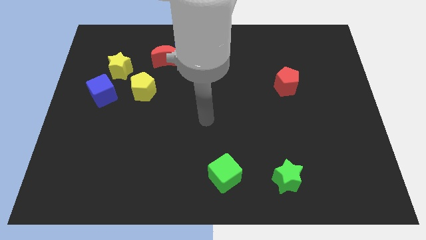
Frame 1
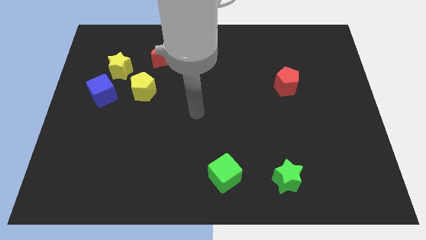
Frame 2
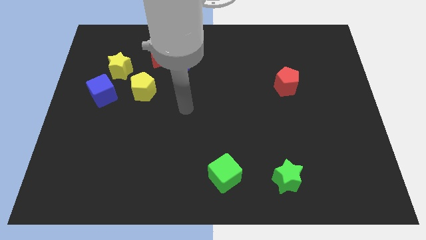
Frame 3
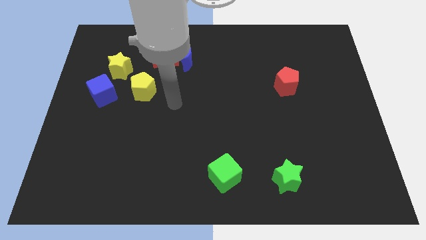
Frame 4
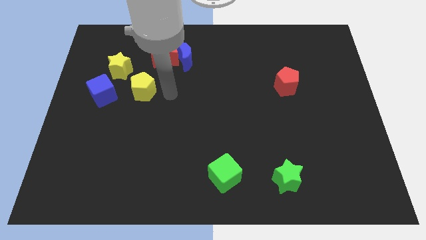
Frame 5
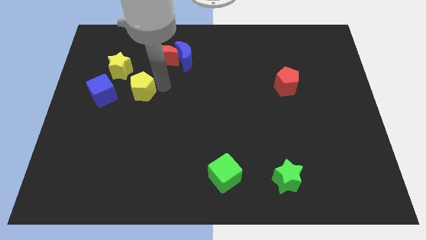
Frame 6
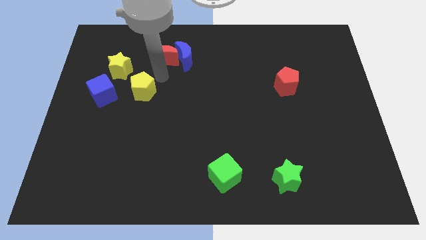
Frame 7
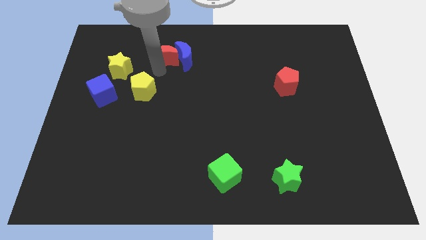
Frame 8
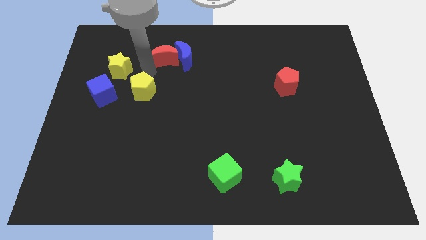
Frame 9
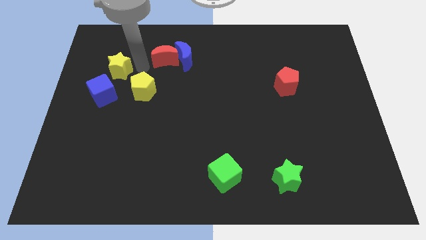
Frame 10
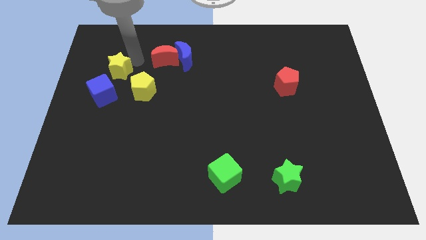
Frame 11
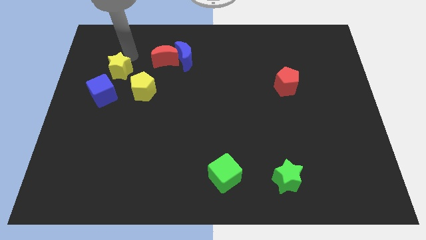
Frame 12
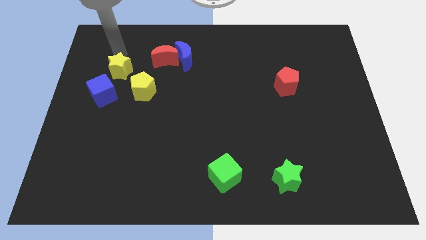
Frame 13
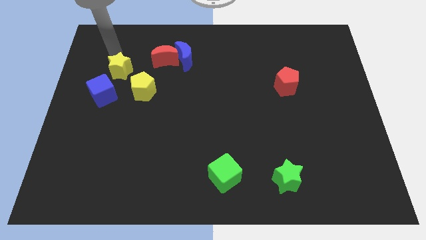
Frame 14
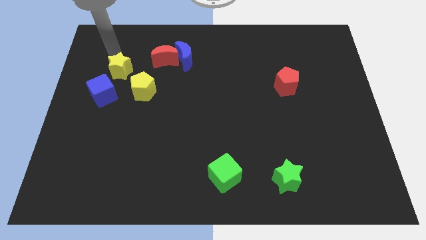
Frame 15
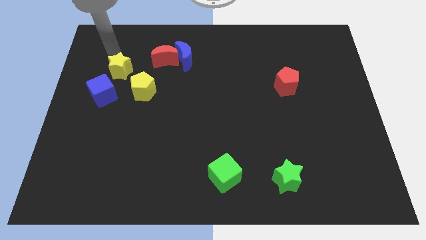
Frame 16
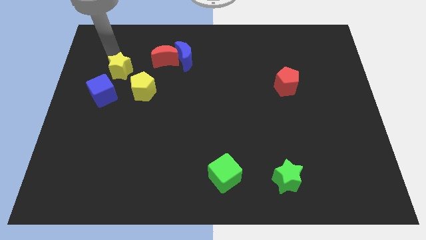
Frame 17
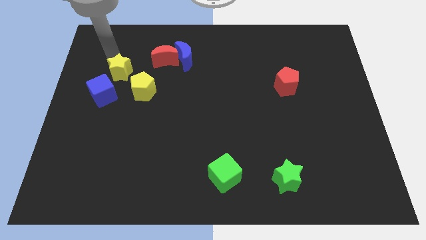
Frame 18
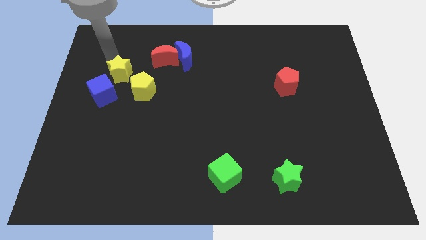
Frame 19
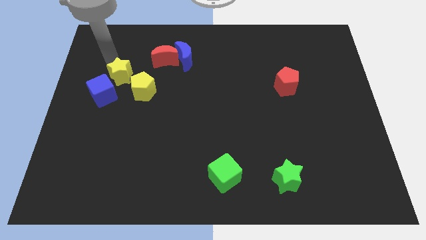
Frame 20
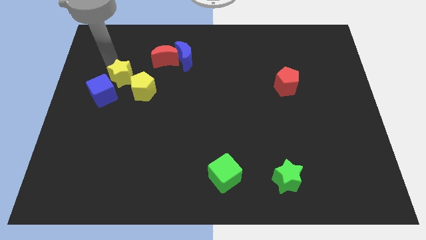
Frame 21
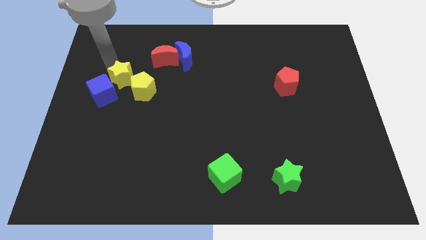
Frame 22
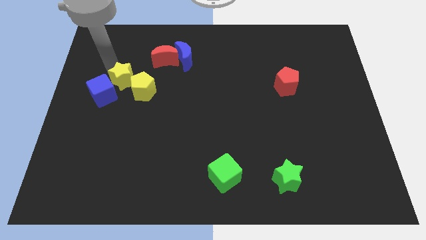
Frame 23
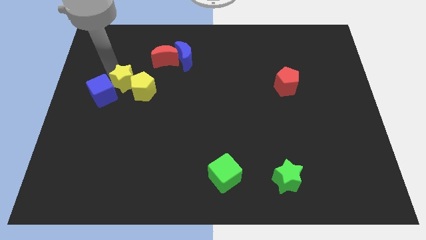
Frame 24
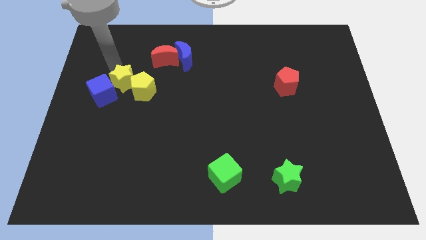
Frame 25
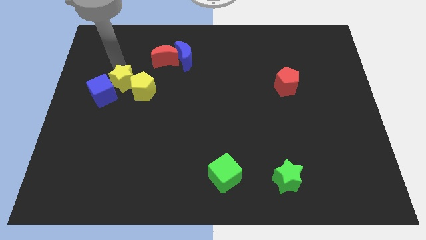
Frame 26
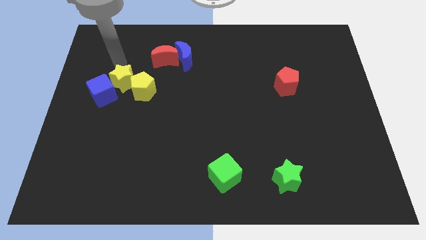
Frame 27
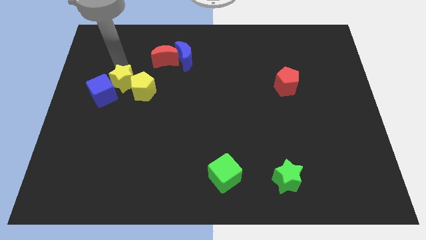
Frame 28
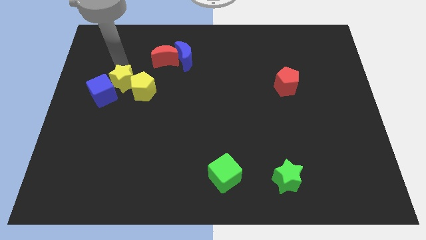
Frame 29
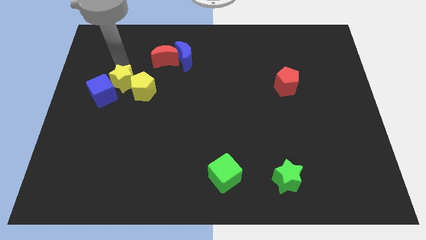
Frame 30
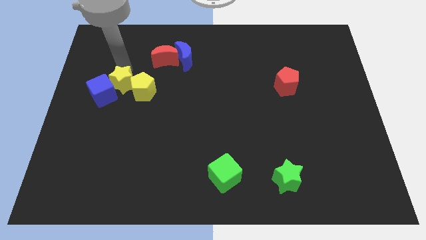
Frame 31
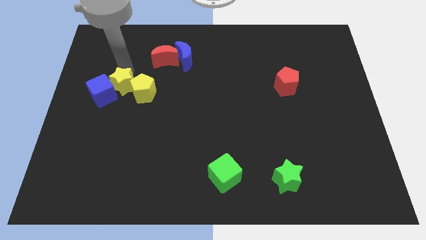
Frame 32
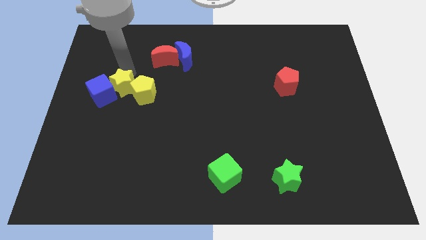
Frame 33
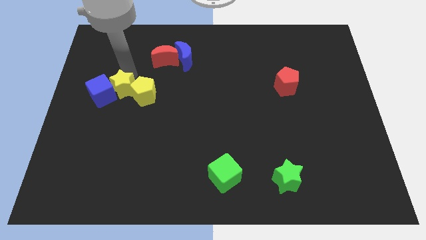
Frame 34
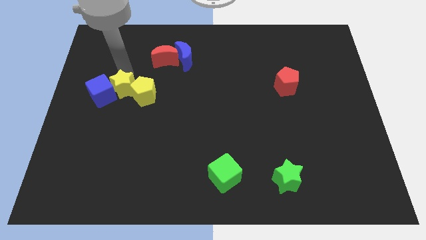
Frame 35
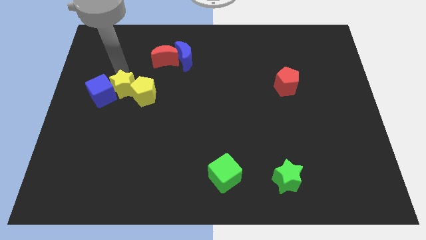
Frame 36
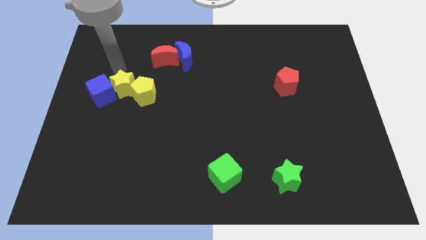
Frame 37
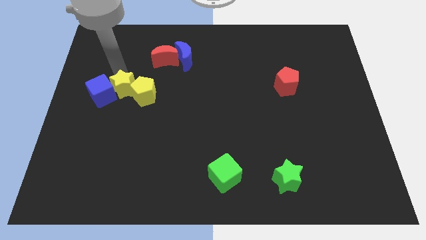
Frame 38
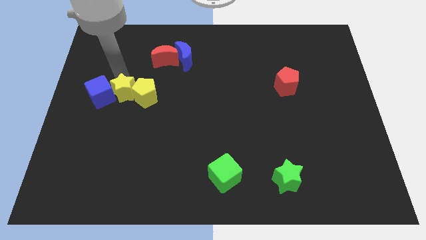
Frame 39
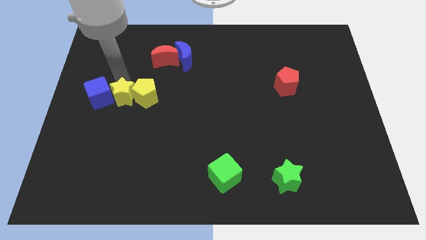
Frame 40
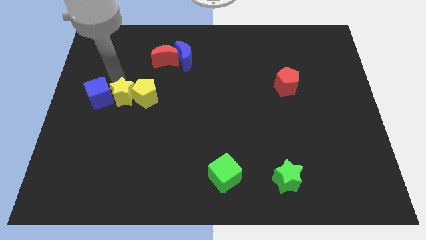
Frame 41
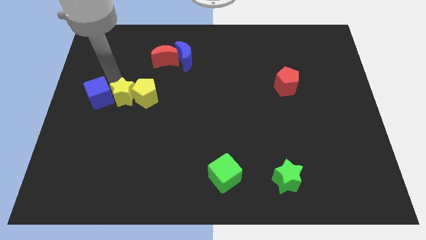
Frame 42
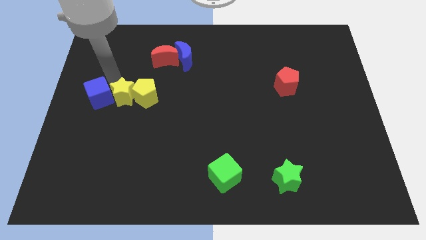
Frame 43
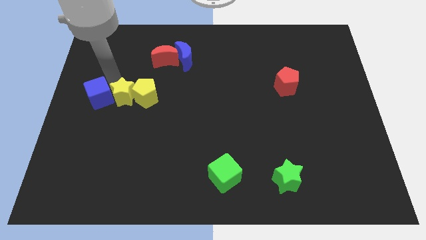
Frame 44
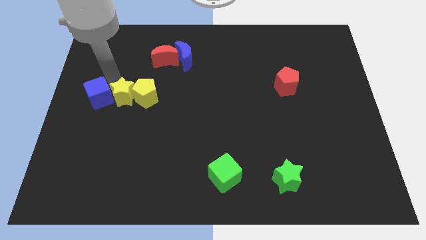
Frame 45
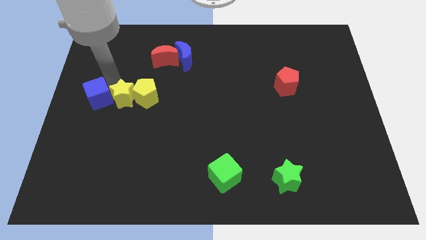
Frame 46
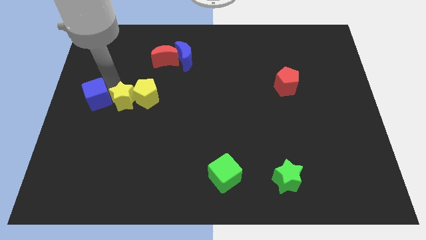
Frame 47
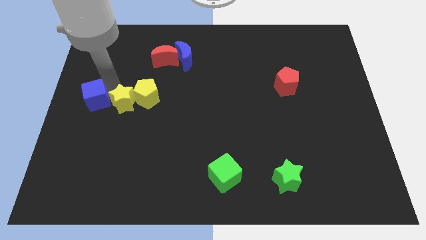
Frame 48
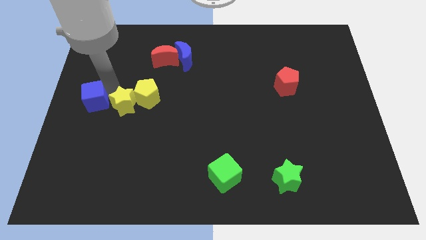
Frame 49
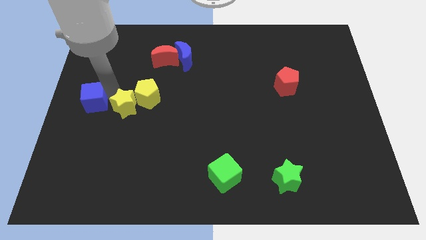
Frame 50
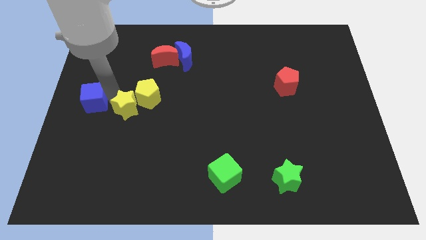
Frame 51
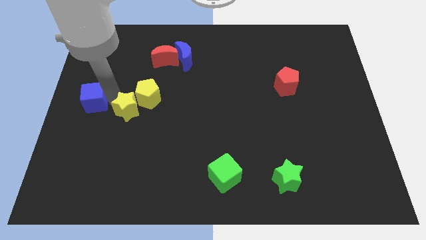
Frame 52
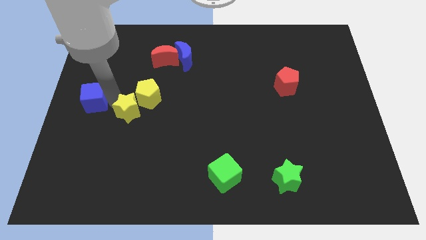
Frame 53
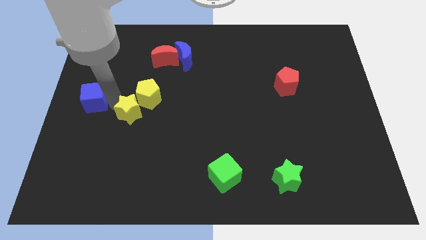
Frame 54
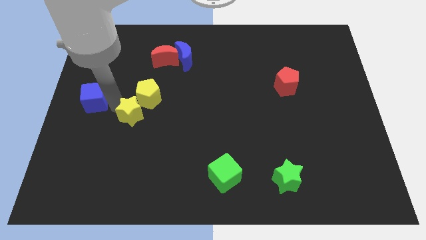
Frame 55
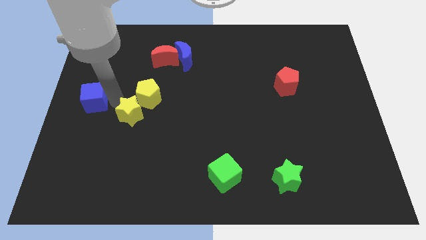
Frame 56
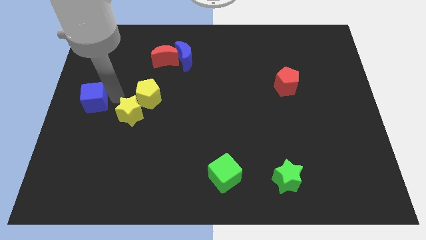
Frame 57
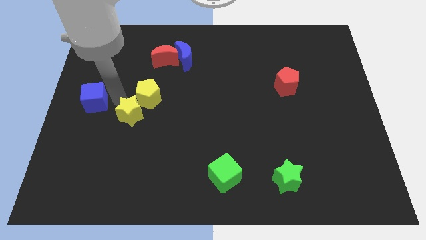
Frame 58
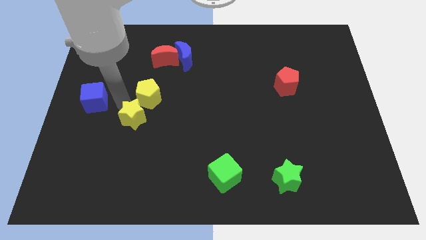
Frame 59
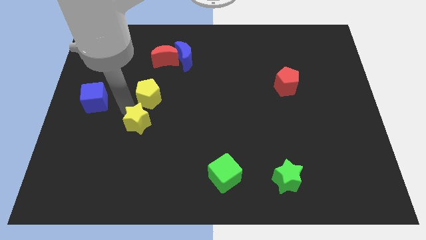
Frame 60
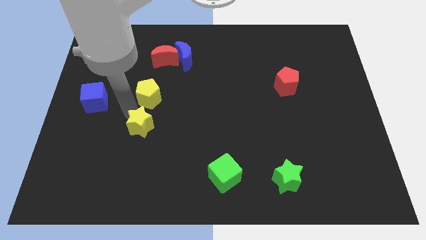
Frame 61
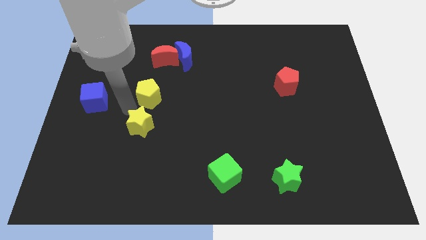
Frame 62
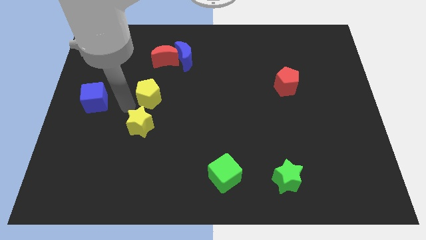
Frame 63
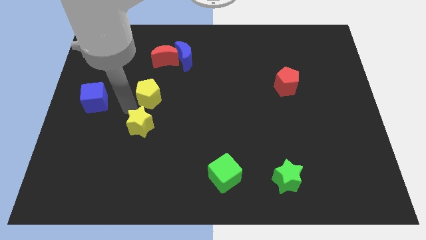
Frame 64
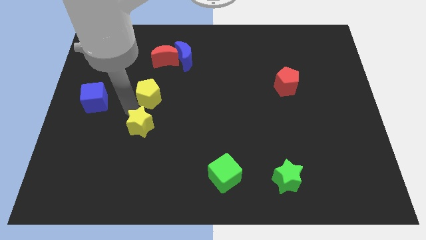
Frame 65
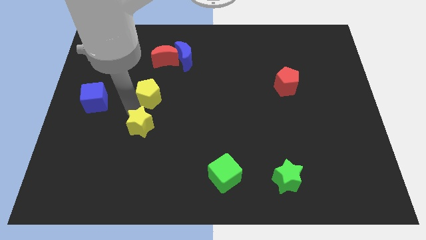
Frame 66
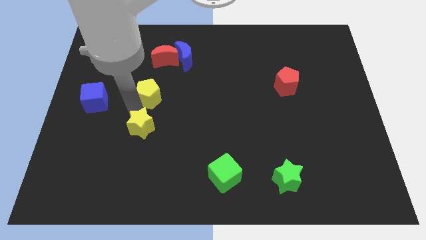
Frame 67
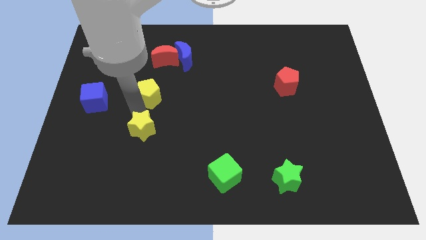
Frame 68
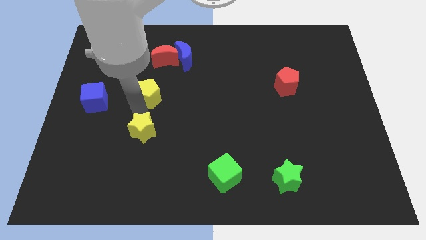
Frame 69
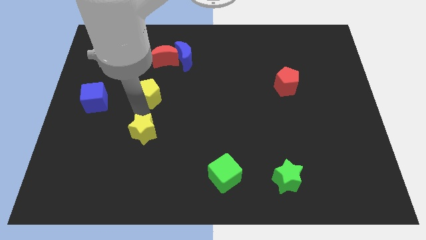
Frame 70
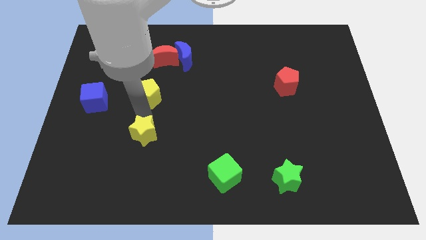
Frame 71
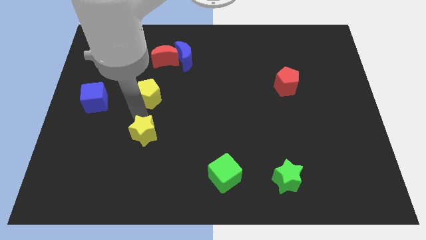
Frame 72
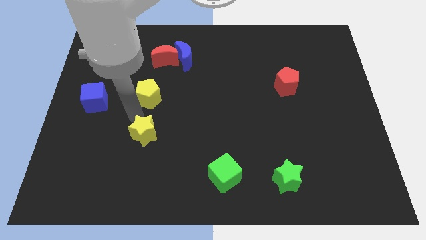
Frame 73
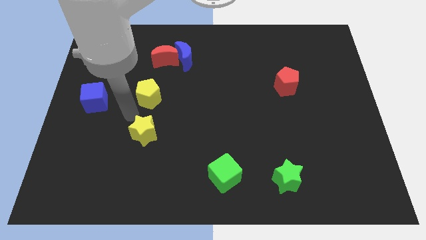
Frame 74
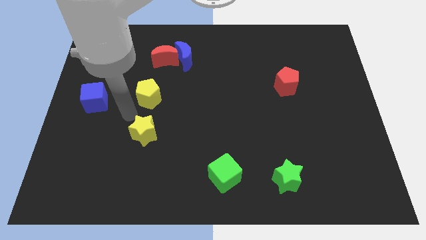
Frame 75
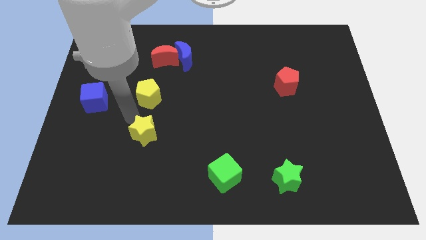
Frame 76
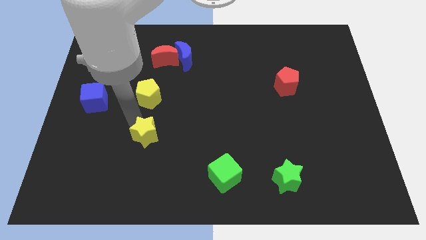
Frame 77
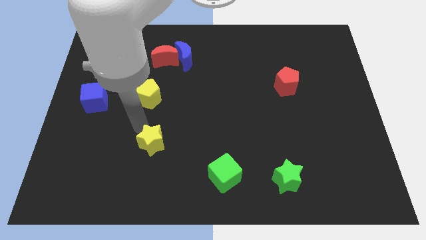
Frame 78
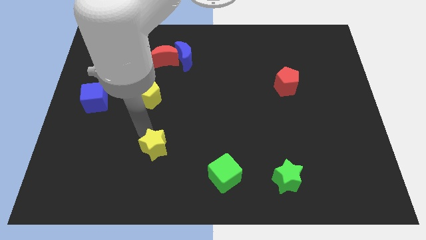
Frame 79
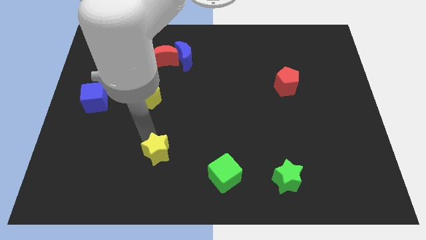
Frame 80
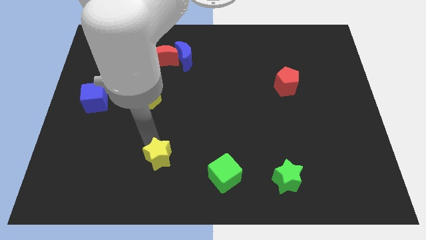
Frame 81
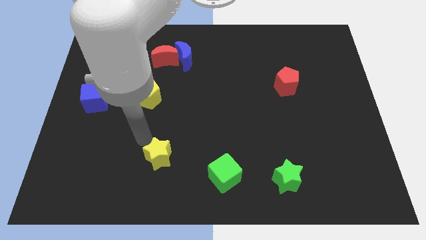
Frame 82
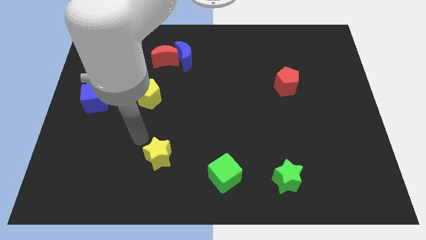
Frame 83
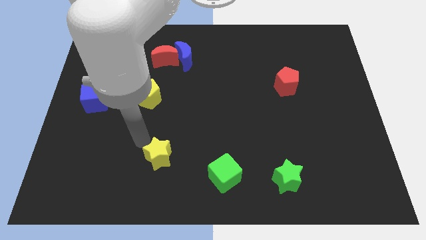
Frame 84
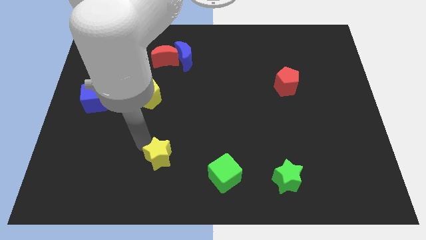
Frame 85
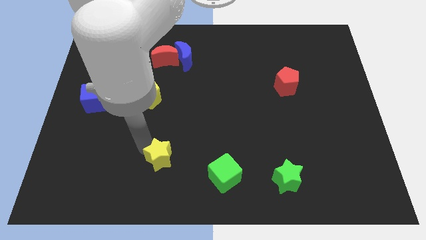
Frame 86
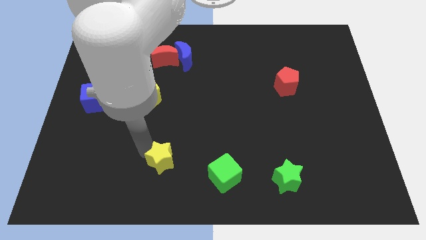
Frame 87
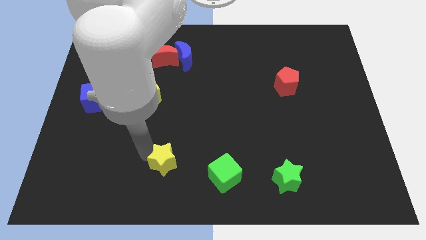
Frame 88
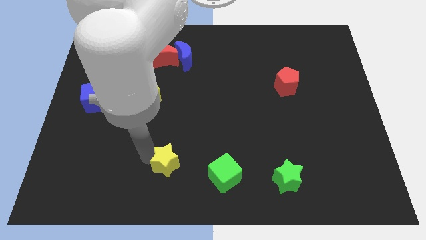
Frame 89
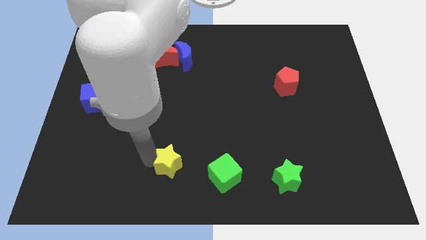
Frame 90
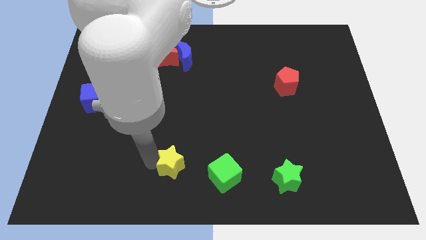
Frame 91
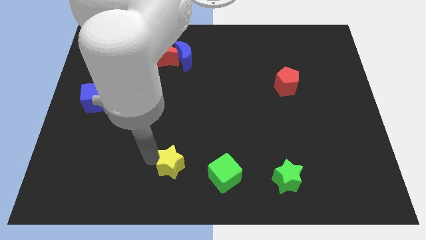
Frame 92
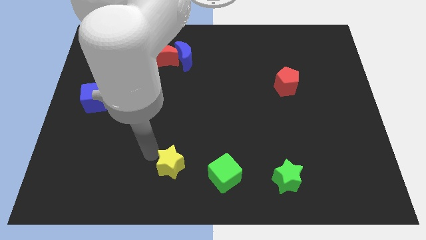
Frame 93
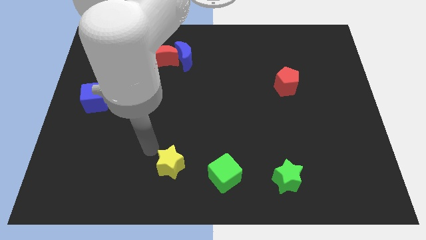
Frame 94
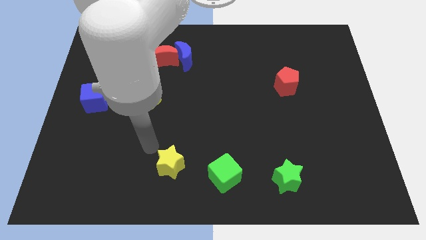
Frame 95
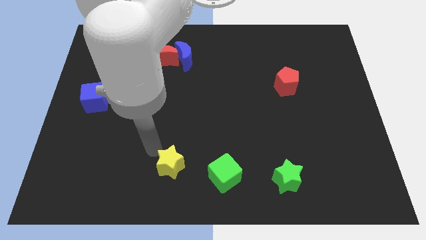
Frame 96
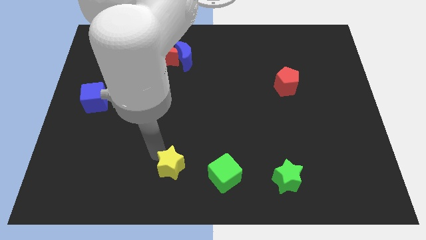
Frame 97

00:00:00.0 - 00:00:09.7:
put the yellow star to the bottom side
